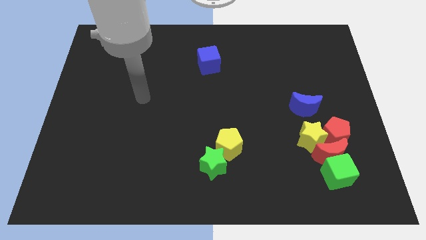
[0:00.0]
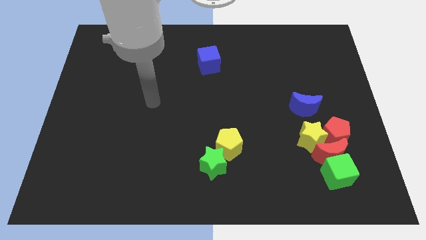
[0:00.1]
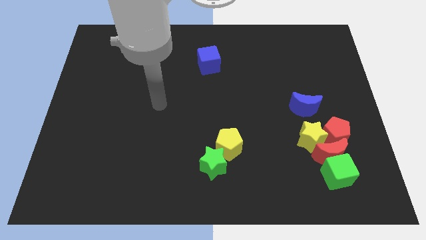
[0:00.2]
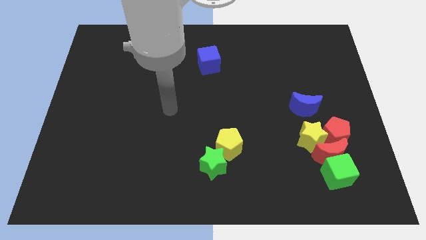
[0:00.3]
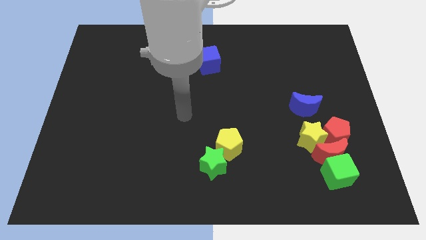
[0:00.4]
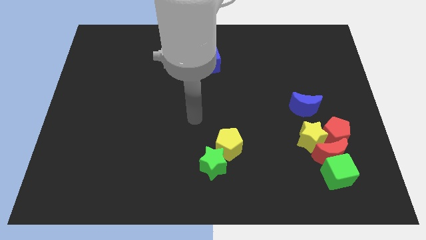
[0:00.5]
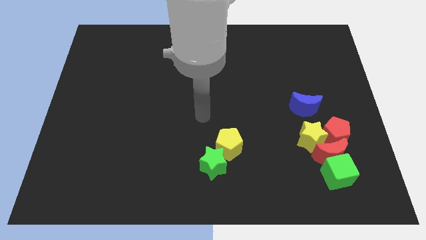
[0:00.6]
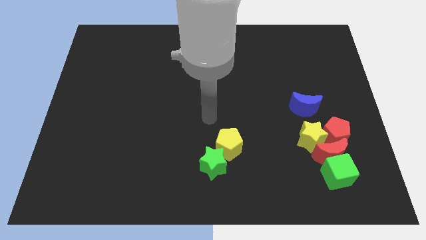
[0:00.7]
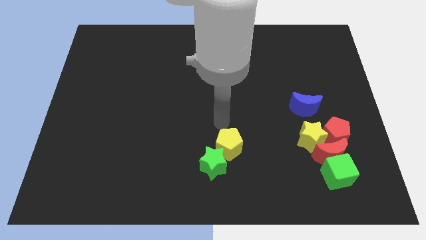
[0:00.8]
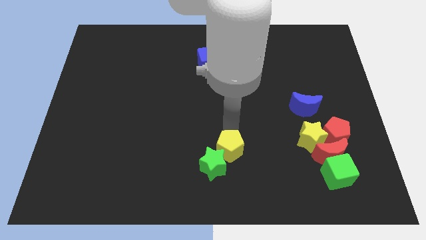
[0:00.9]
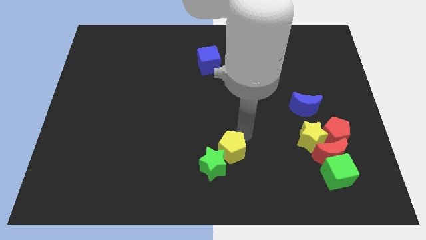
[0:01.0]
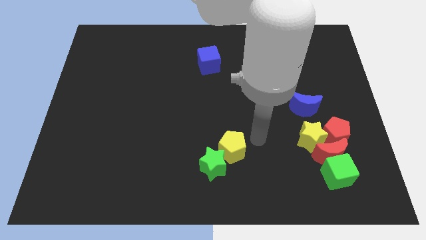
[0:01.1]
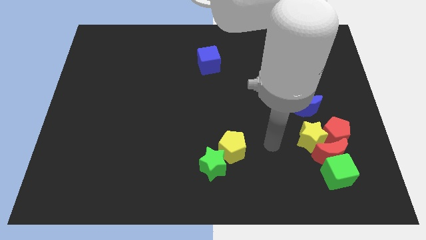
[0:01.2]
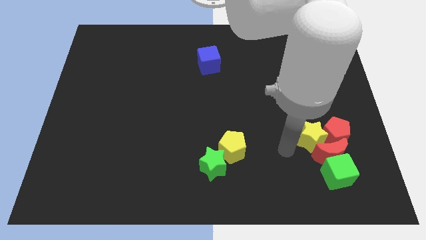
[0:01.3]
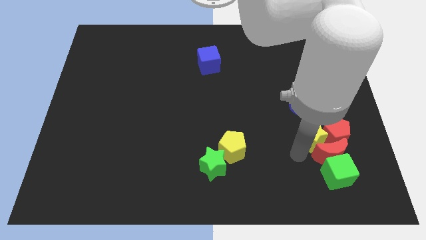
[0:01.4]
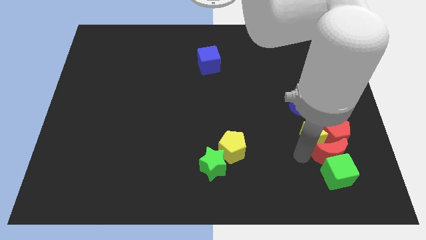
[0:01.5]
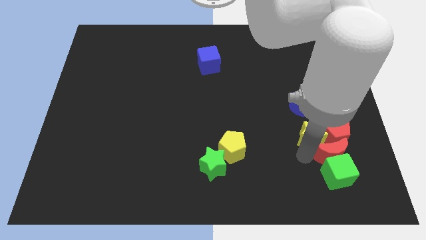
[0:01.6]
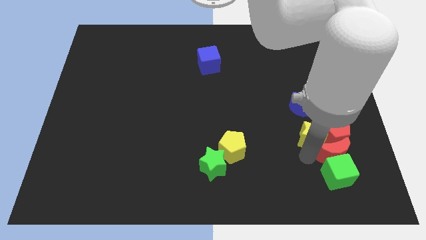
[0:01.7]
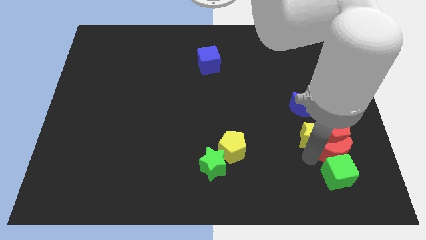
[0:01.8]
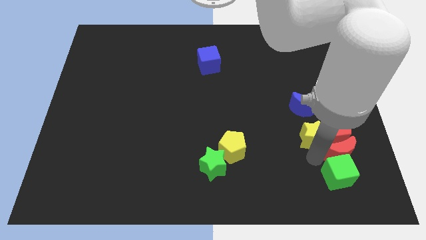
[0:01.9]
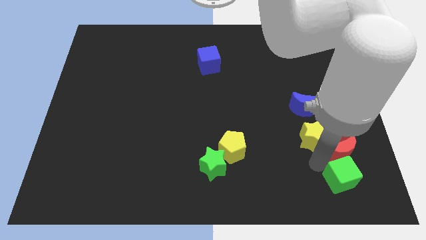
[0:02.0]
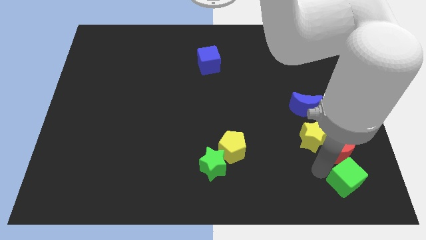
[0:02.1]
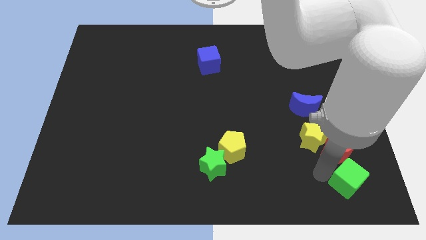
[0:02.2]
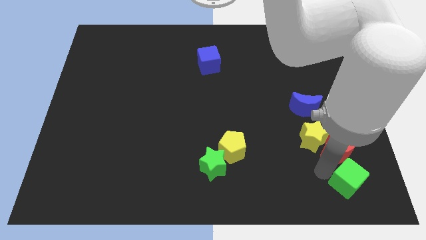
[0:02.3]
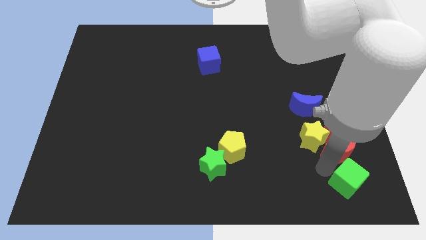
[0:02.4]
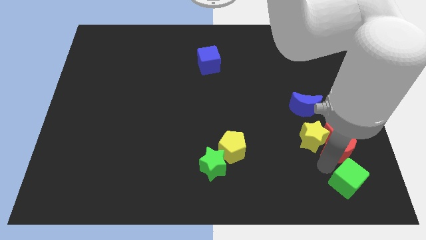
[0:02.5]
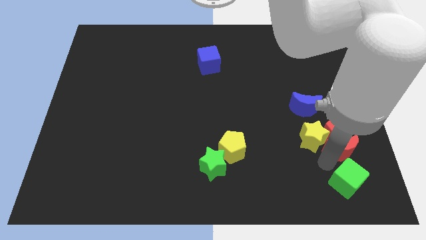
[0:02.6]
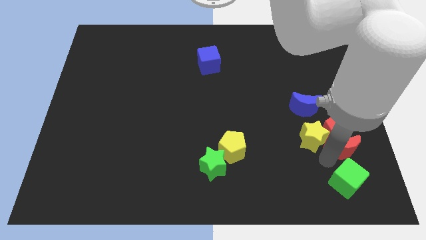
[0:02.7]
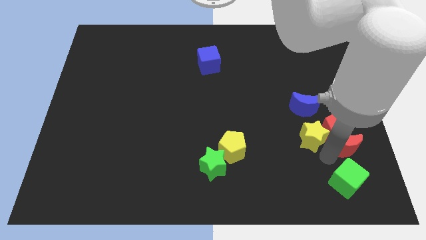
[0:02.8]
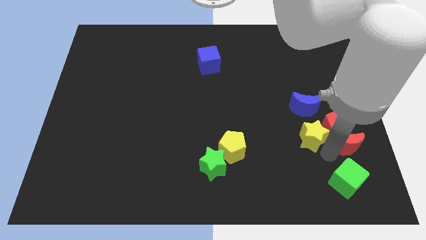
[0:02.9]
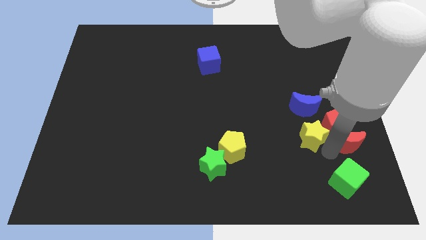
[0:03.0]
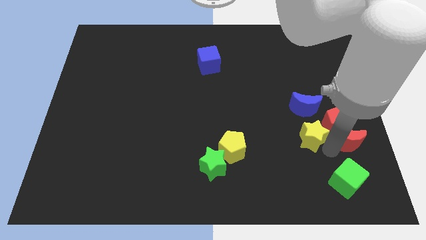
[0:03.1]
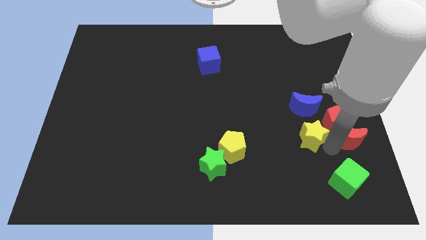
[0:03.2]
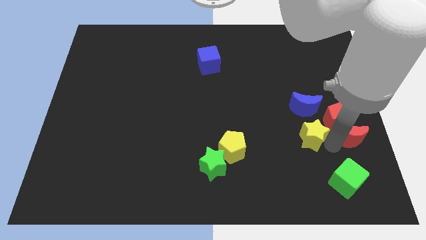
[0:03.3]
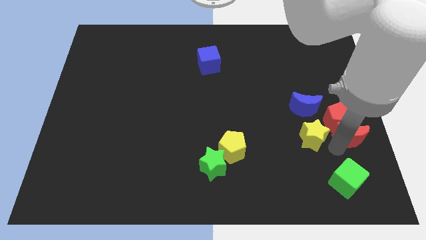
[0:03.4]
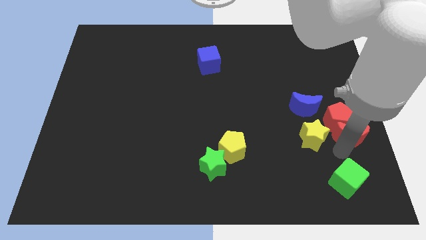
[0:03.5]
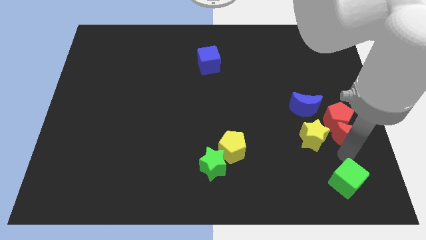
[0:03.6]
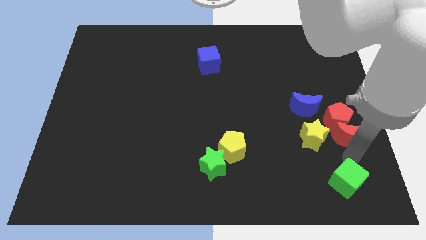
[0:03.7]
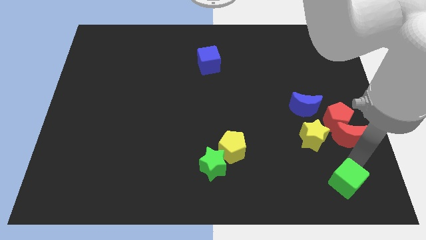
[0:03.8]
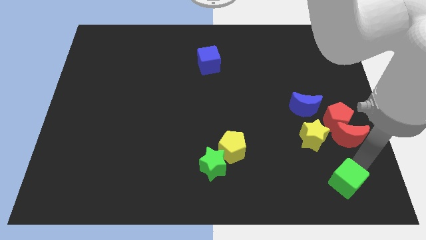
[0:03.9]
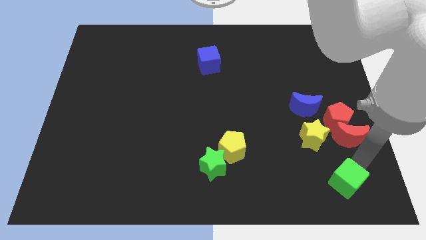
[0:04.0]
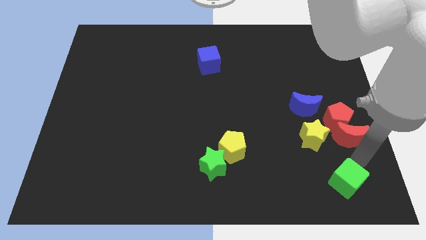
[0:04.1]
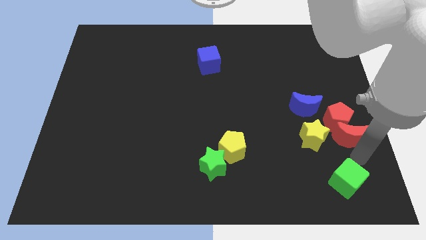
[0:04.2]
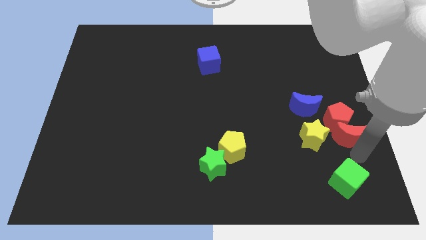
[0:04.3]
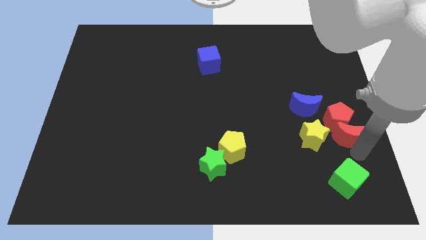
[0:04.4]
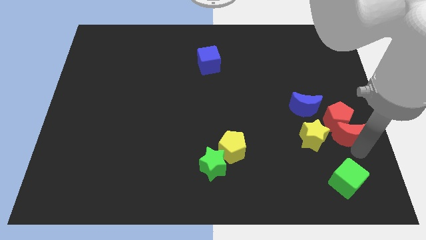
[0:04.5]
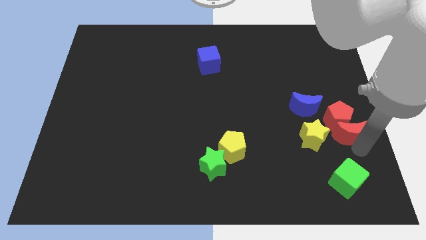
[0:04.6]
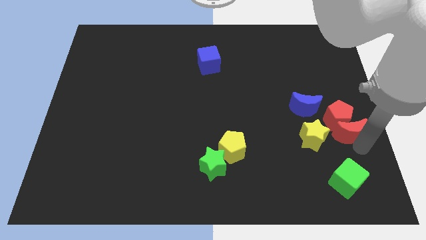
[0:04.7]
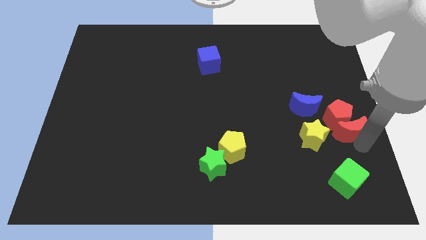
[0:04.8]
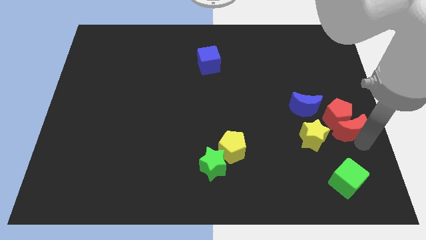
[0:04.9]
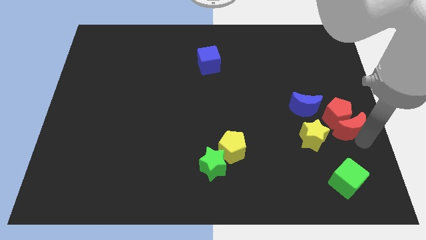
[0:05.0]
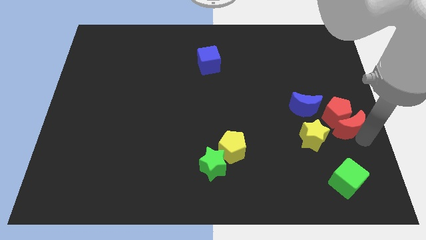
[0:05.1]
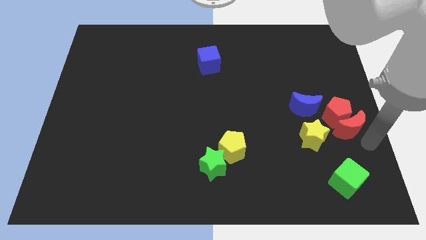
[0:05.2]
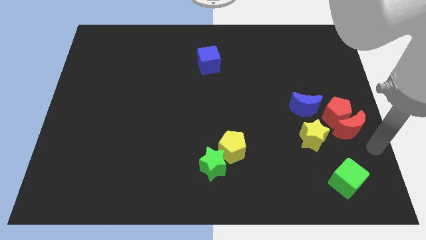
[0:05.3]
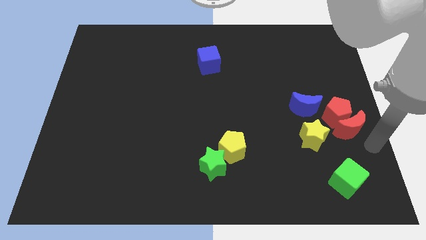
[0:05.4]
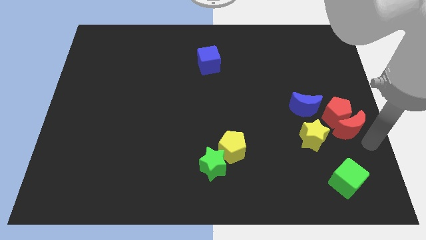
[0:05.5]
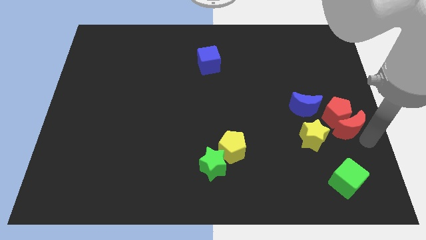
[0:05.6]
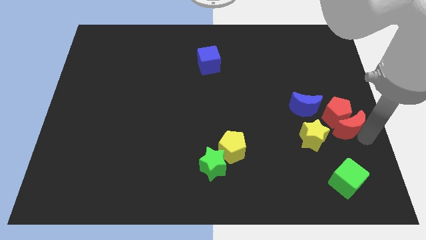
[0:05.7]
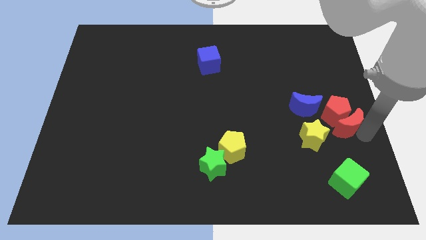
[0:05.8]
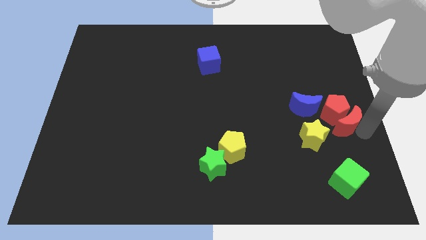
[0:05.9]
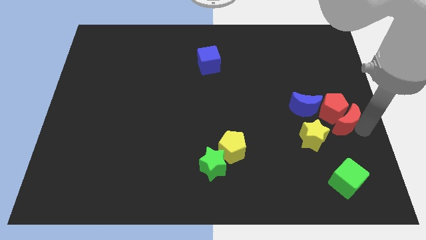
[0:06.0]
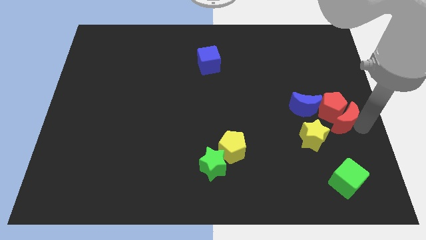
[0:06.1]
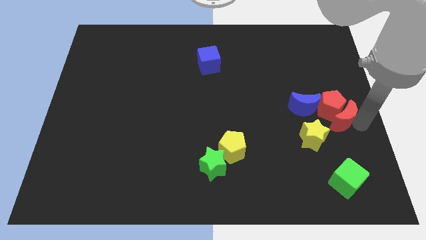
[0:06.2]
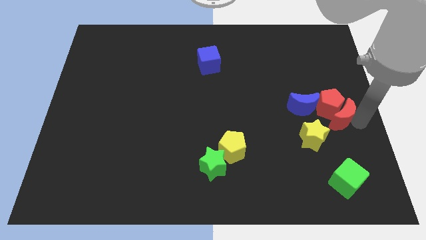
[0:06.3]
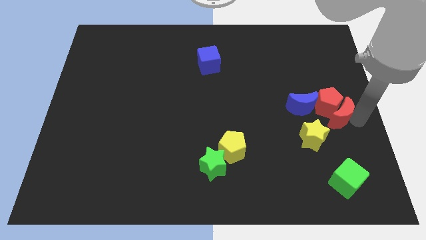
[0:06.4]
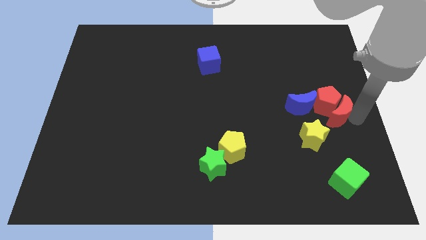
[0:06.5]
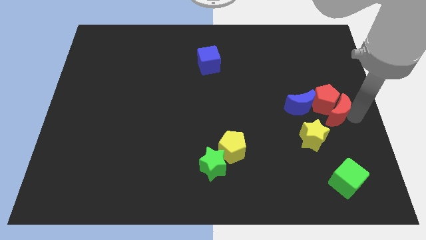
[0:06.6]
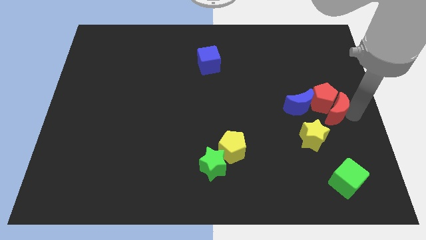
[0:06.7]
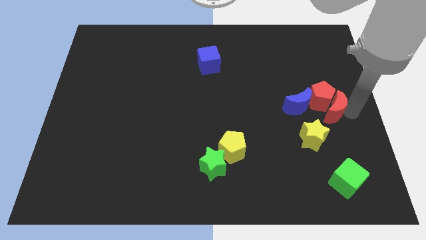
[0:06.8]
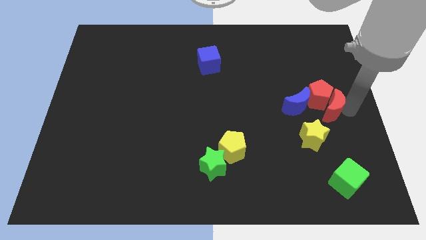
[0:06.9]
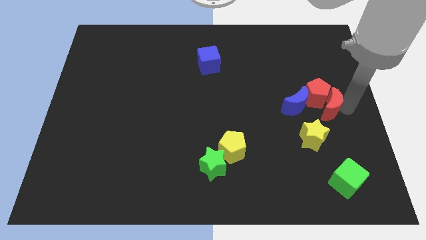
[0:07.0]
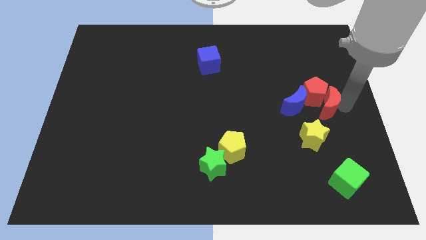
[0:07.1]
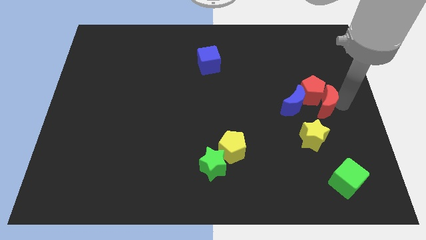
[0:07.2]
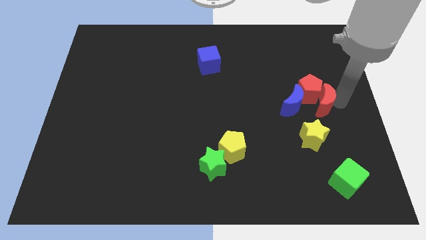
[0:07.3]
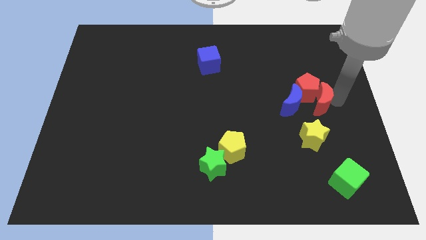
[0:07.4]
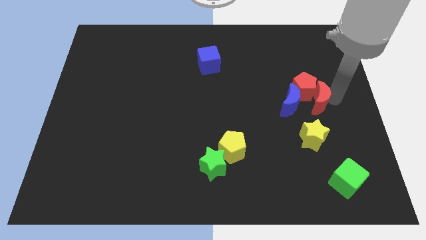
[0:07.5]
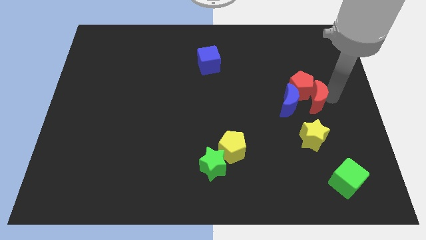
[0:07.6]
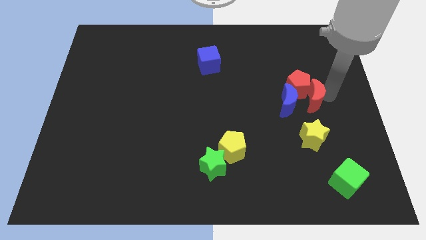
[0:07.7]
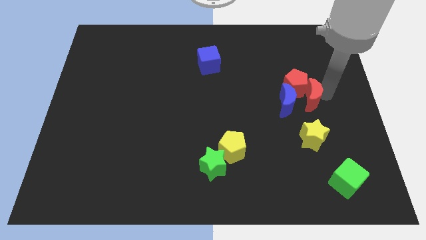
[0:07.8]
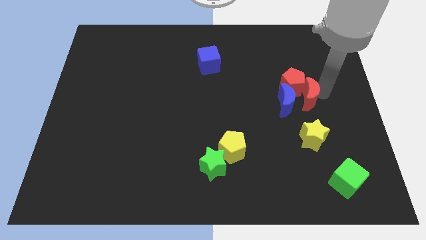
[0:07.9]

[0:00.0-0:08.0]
put the red moon towards the blue moon
